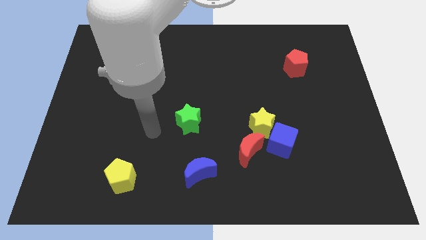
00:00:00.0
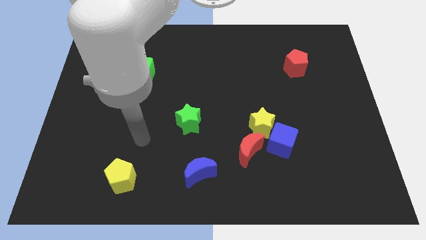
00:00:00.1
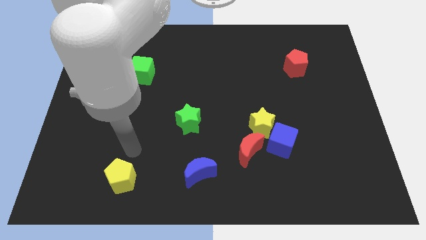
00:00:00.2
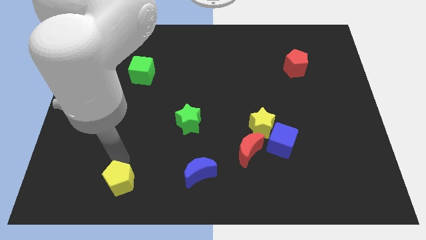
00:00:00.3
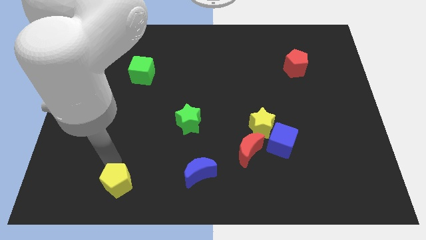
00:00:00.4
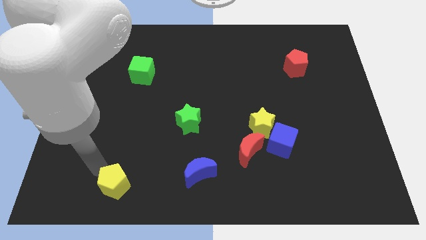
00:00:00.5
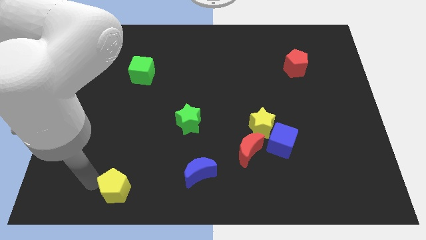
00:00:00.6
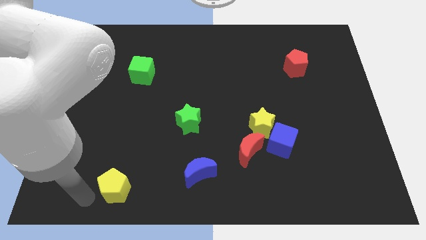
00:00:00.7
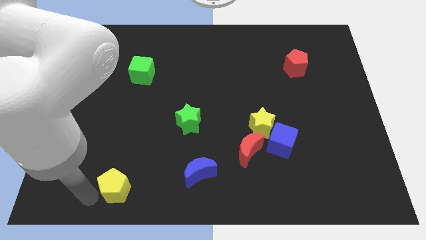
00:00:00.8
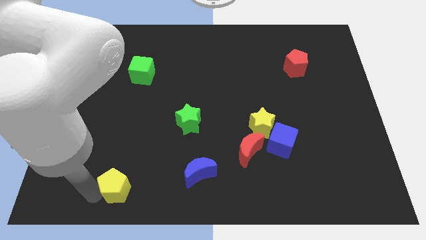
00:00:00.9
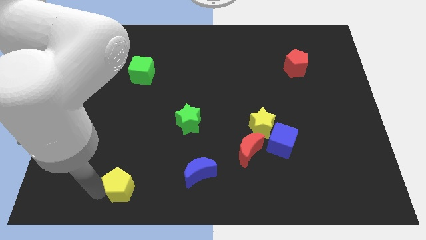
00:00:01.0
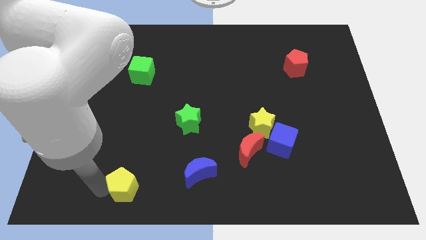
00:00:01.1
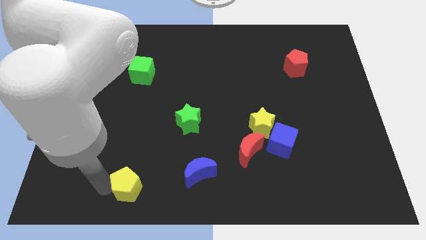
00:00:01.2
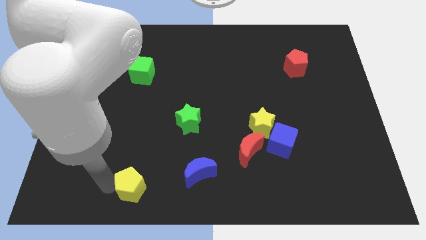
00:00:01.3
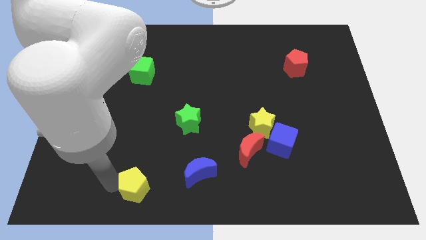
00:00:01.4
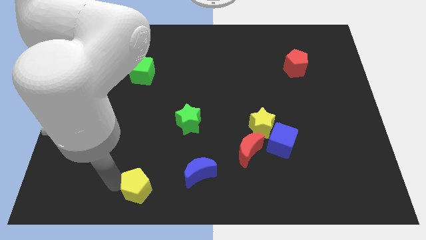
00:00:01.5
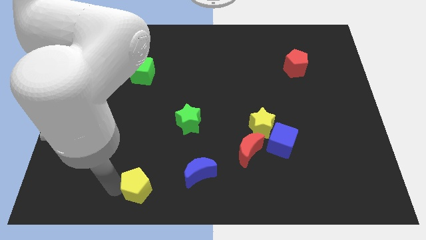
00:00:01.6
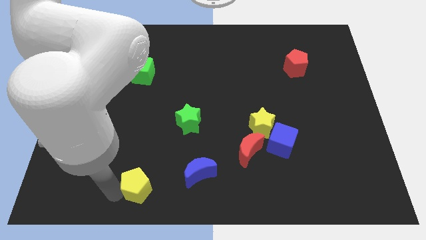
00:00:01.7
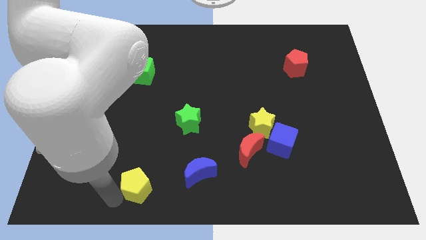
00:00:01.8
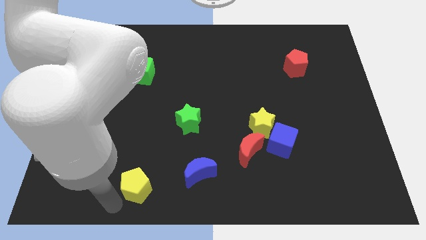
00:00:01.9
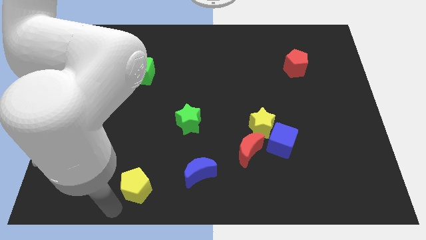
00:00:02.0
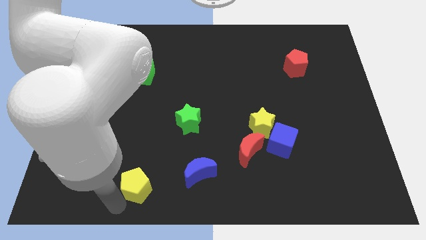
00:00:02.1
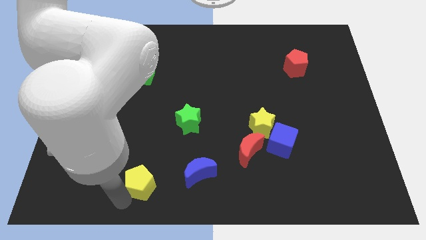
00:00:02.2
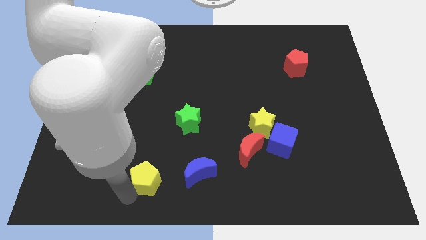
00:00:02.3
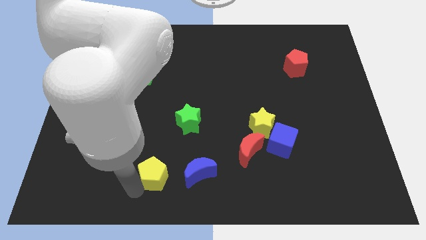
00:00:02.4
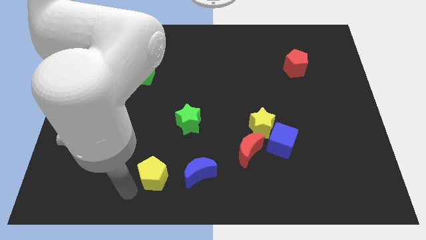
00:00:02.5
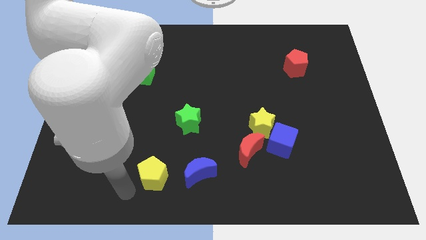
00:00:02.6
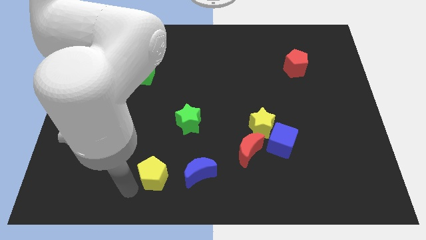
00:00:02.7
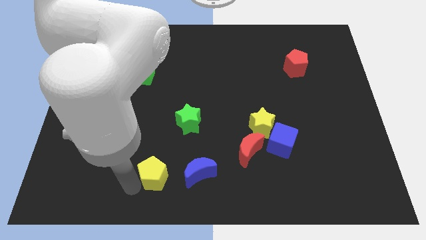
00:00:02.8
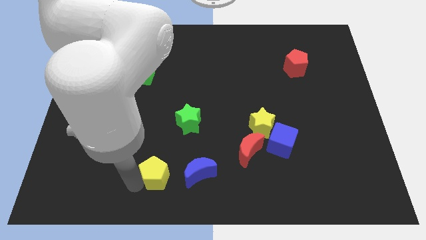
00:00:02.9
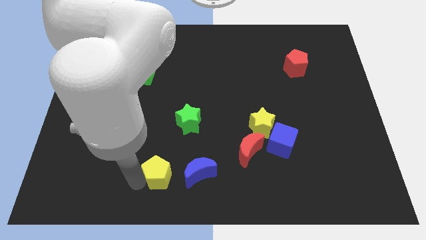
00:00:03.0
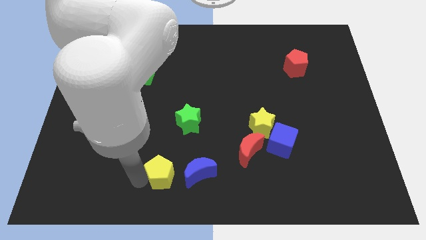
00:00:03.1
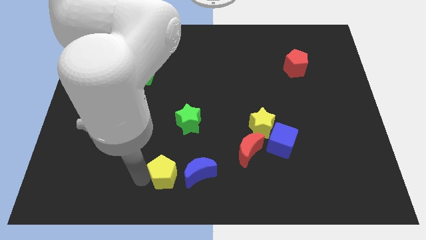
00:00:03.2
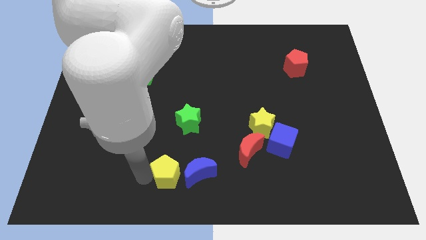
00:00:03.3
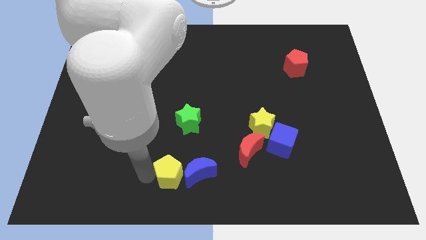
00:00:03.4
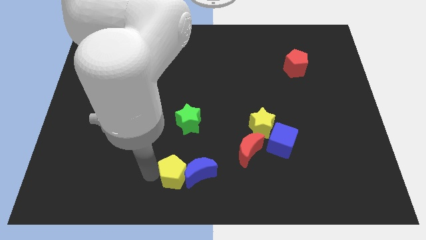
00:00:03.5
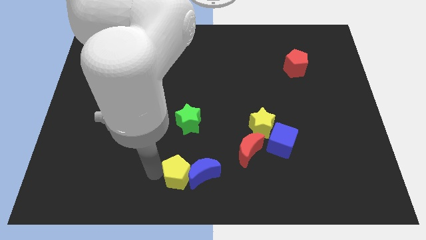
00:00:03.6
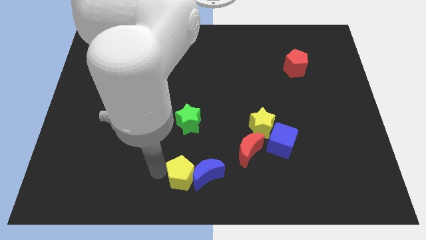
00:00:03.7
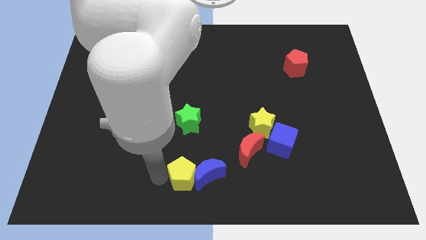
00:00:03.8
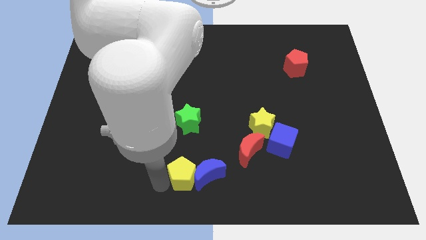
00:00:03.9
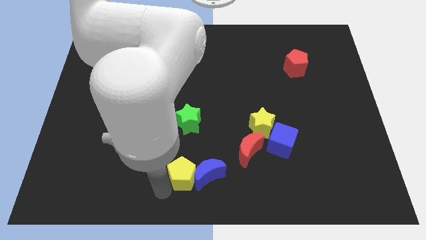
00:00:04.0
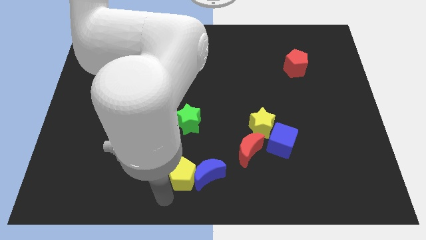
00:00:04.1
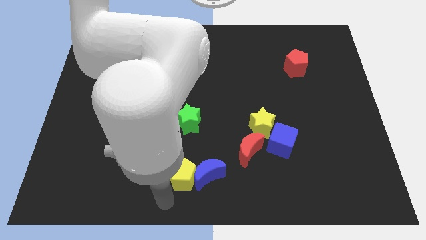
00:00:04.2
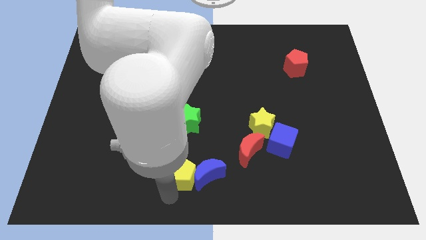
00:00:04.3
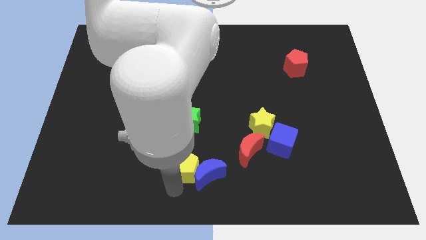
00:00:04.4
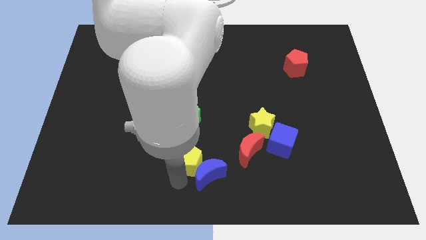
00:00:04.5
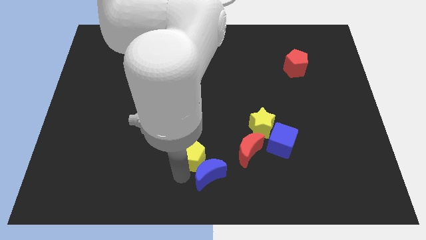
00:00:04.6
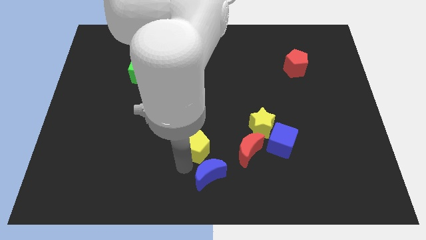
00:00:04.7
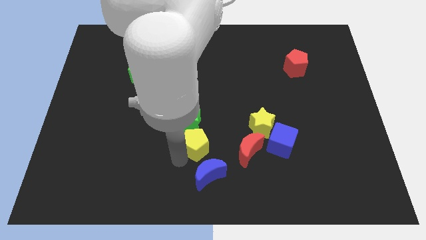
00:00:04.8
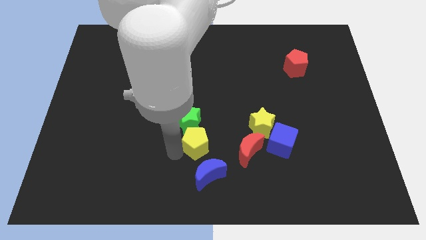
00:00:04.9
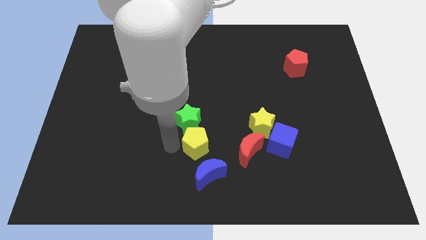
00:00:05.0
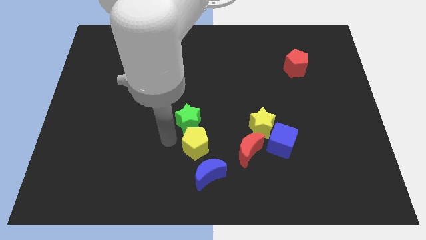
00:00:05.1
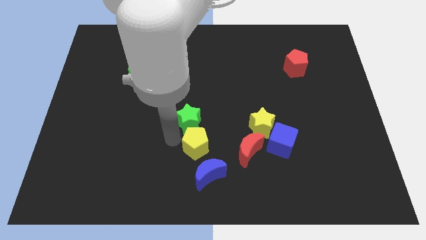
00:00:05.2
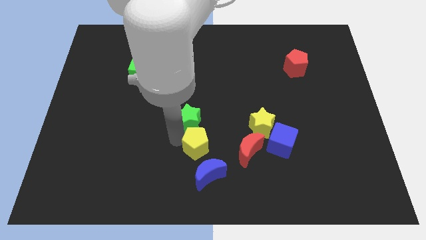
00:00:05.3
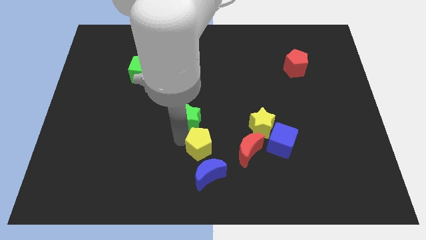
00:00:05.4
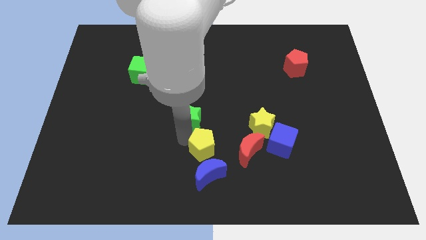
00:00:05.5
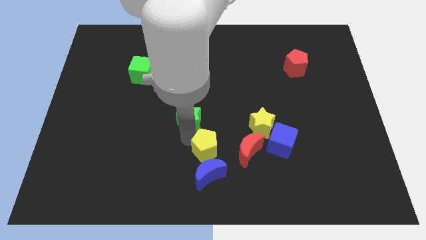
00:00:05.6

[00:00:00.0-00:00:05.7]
move the yellow pentagon diagonally up and to the right of the blue moon
